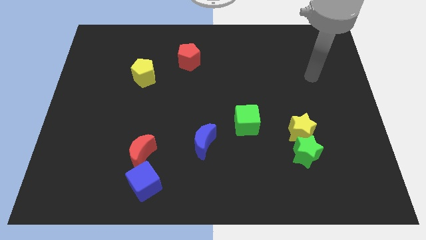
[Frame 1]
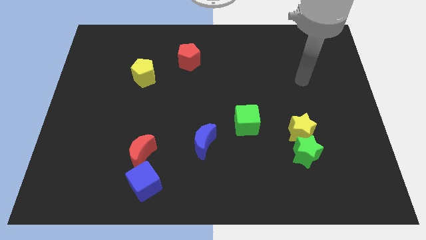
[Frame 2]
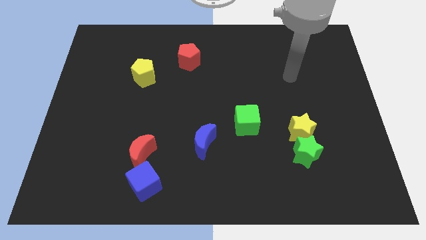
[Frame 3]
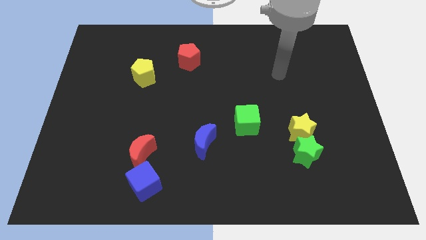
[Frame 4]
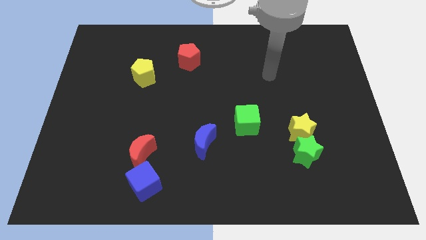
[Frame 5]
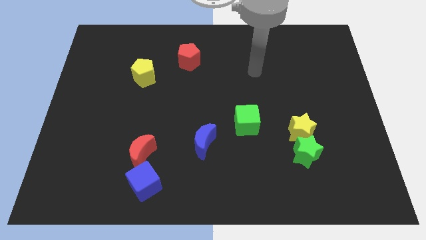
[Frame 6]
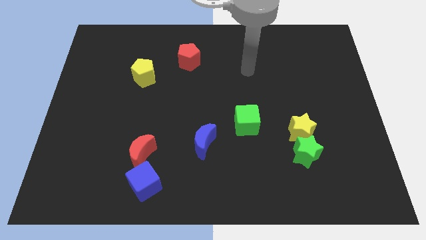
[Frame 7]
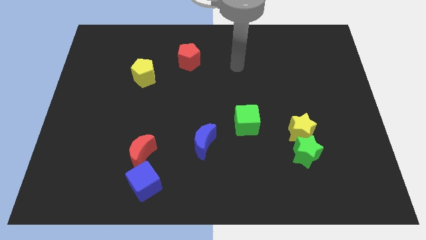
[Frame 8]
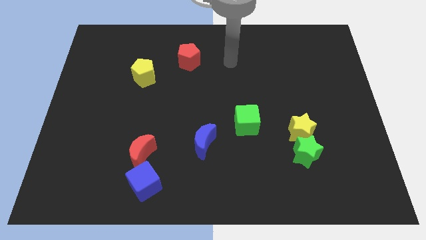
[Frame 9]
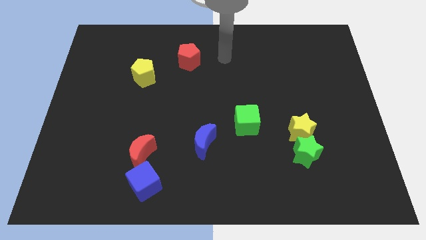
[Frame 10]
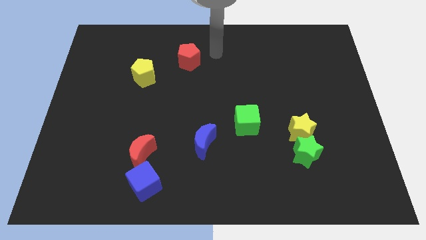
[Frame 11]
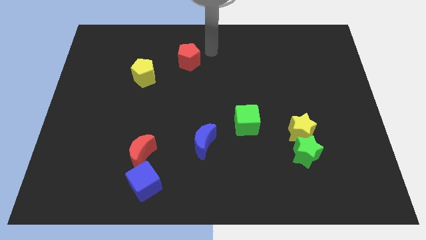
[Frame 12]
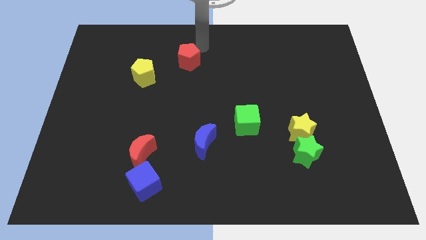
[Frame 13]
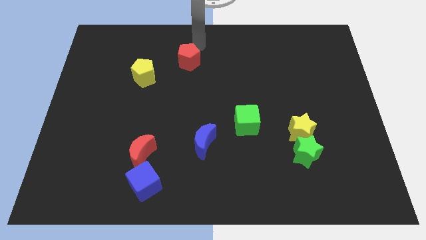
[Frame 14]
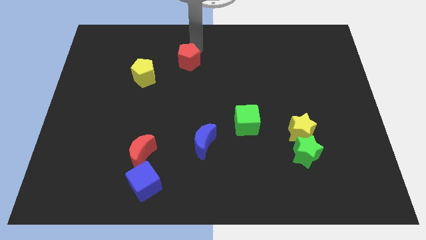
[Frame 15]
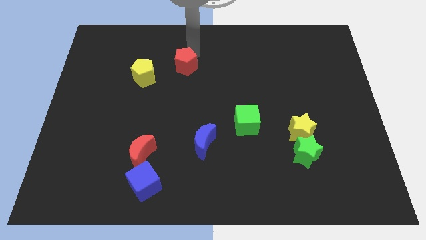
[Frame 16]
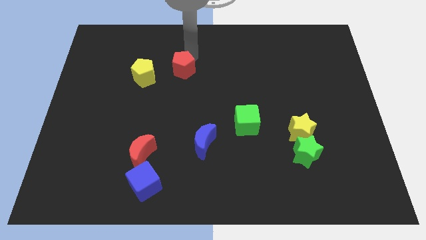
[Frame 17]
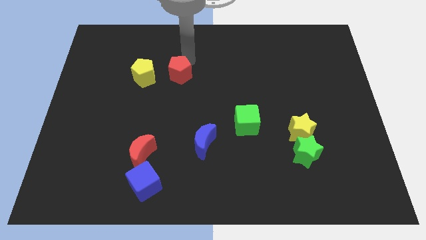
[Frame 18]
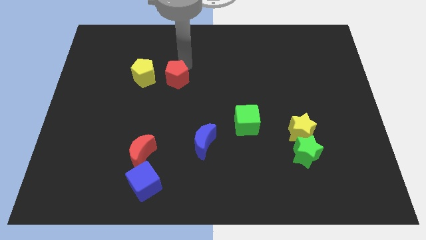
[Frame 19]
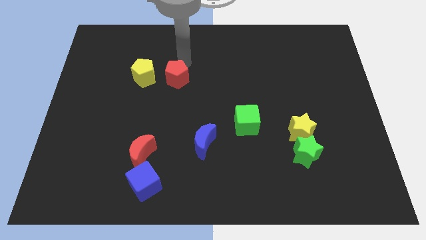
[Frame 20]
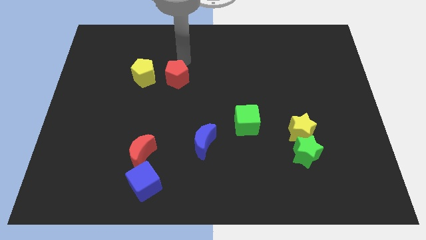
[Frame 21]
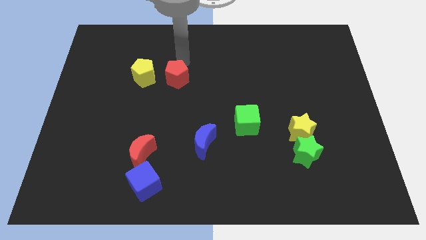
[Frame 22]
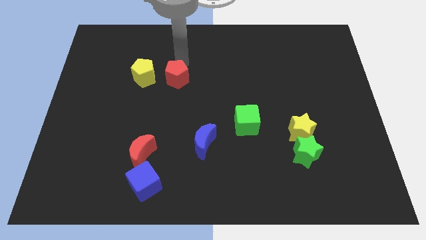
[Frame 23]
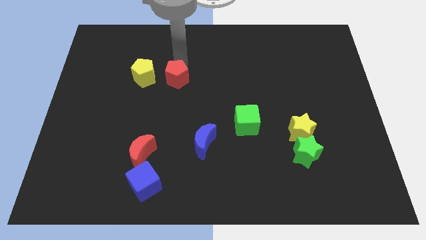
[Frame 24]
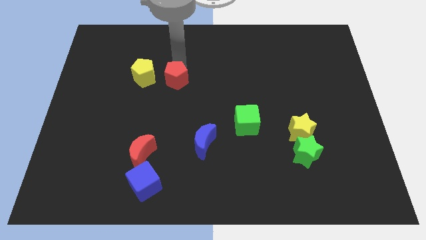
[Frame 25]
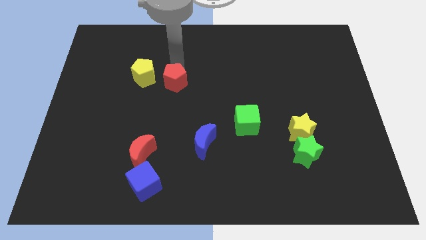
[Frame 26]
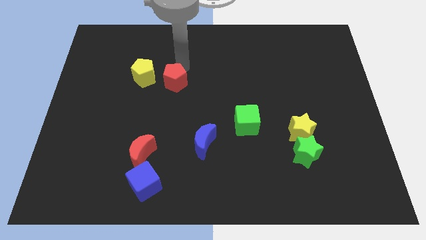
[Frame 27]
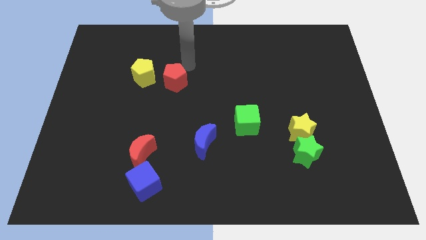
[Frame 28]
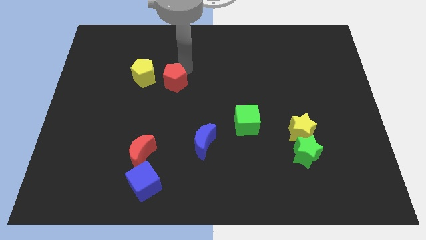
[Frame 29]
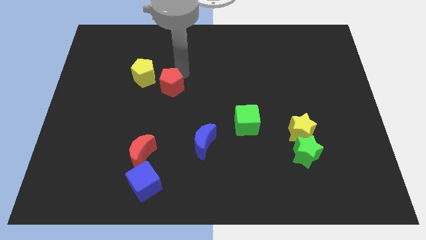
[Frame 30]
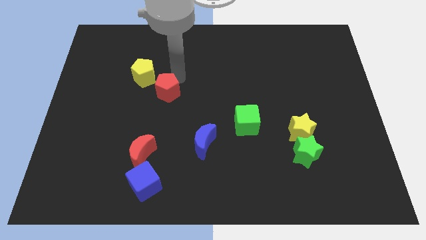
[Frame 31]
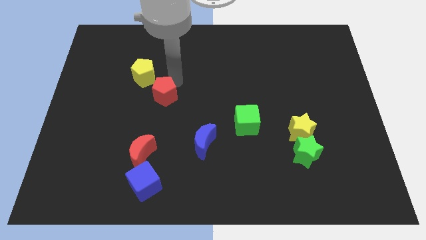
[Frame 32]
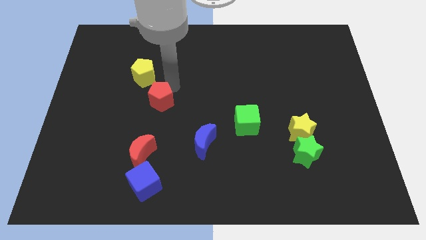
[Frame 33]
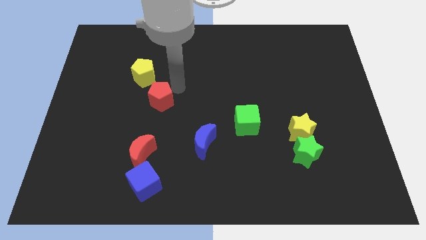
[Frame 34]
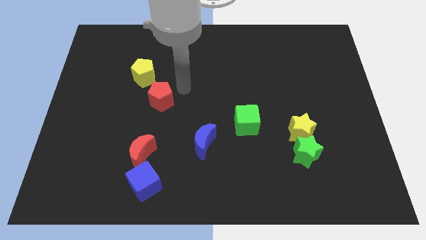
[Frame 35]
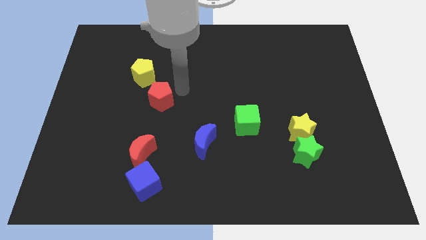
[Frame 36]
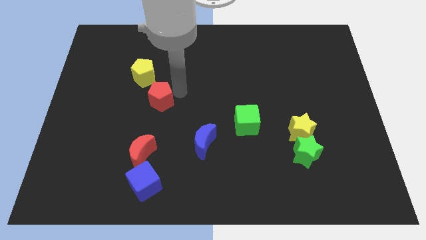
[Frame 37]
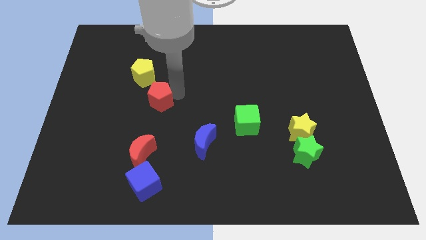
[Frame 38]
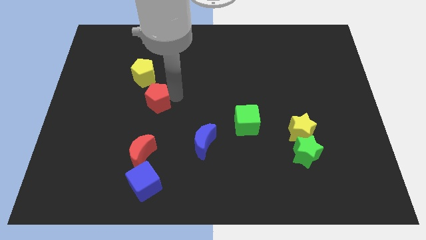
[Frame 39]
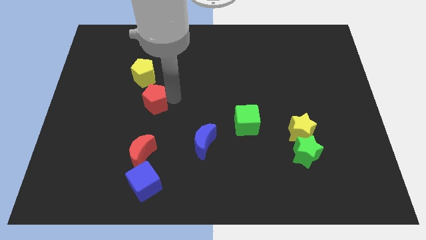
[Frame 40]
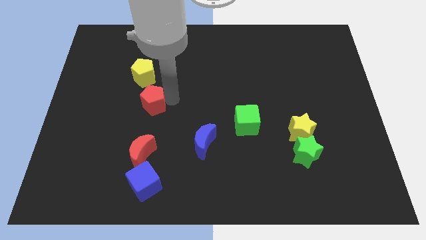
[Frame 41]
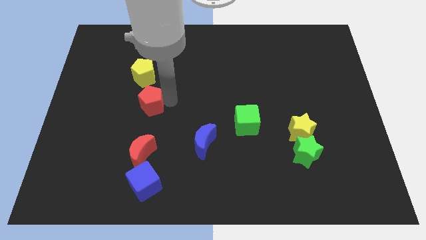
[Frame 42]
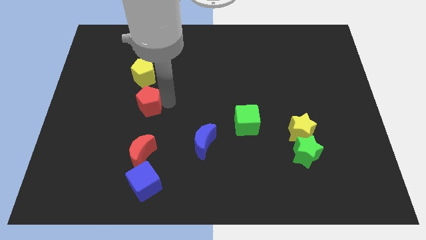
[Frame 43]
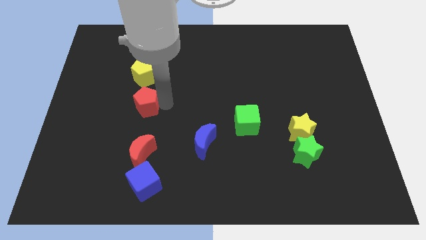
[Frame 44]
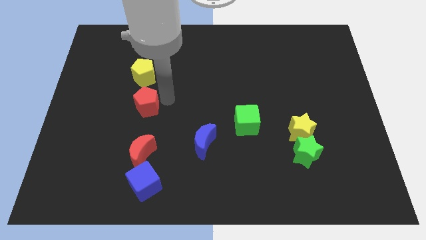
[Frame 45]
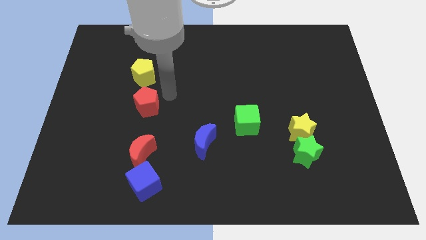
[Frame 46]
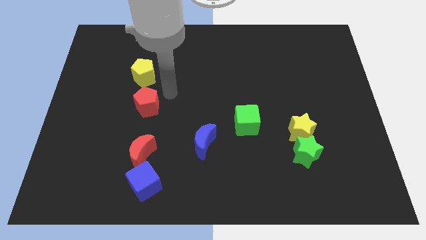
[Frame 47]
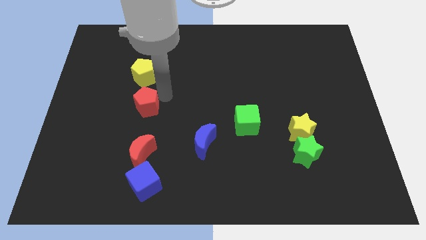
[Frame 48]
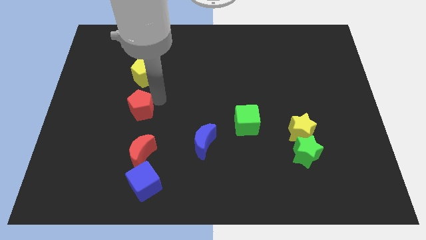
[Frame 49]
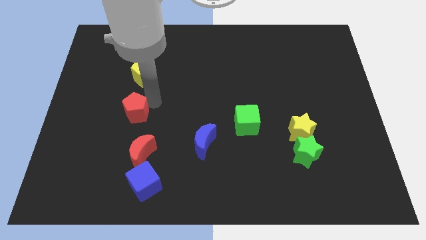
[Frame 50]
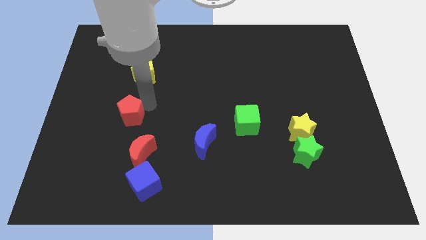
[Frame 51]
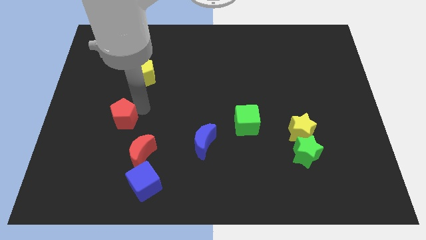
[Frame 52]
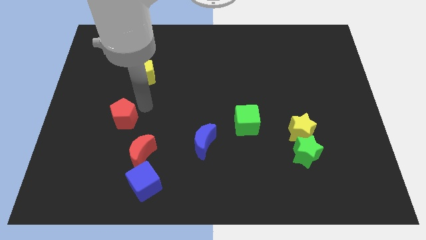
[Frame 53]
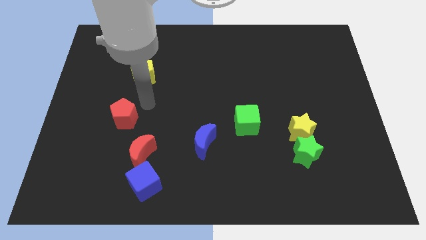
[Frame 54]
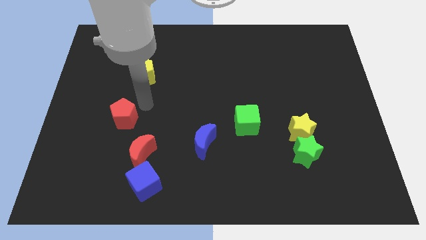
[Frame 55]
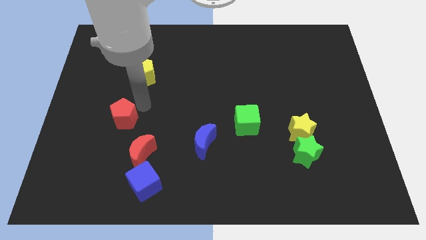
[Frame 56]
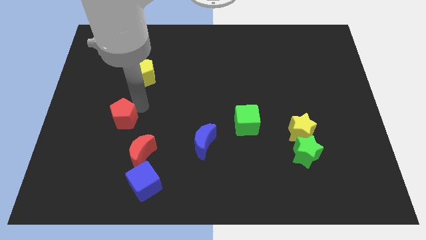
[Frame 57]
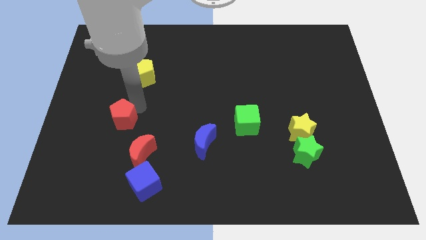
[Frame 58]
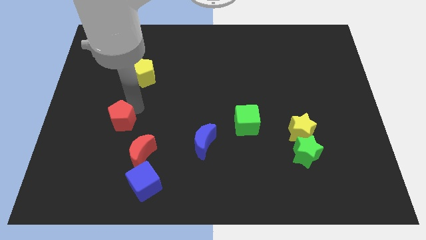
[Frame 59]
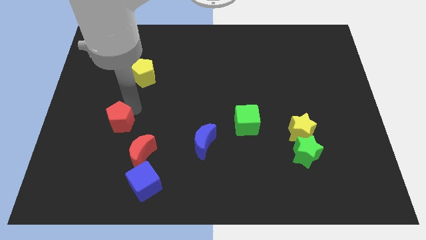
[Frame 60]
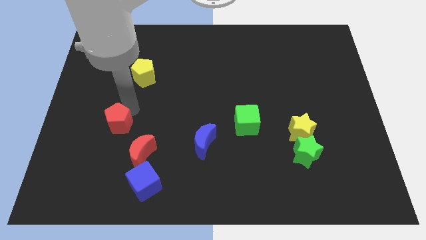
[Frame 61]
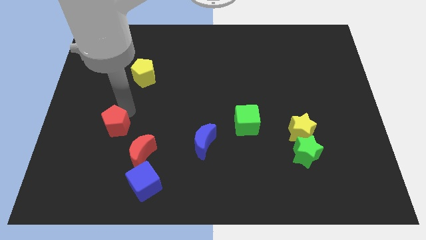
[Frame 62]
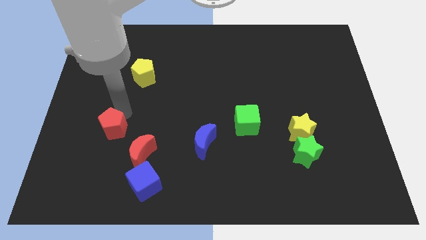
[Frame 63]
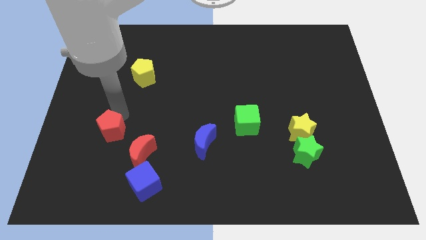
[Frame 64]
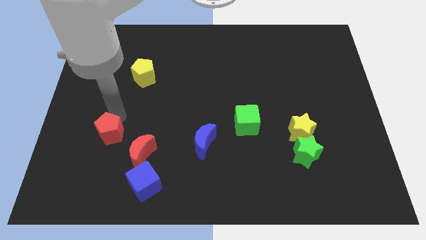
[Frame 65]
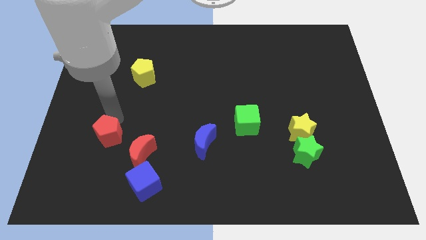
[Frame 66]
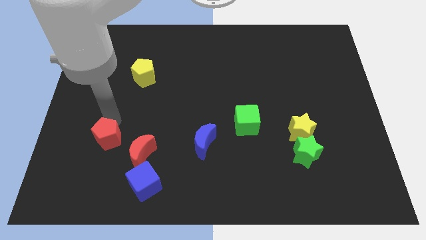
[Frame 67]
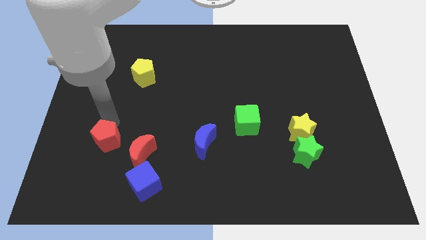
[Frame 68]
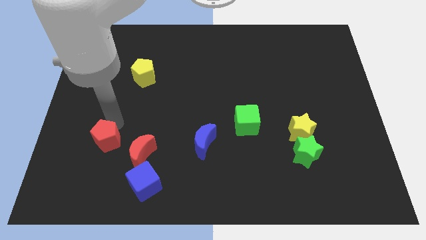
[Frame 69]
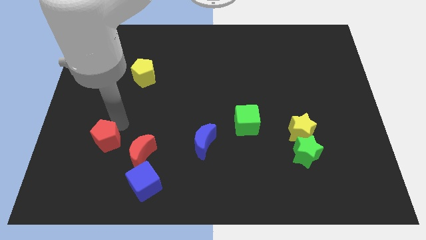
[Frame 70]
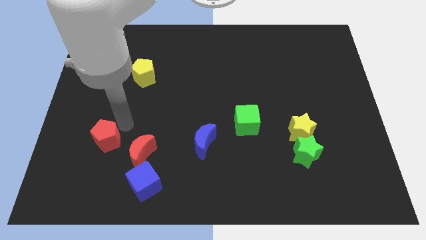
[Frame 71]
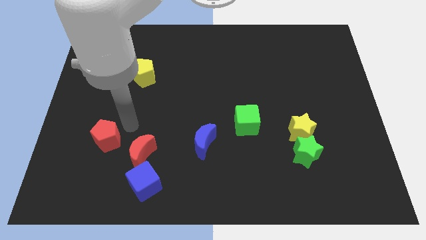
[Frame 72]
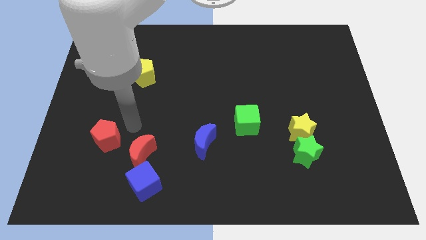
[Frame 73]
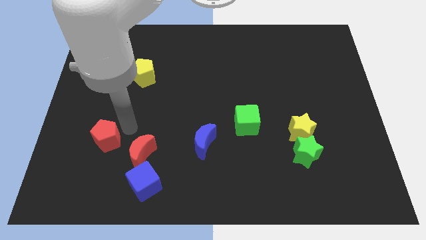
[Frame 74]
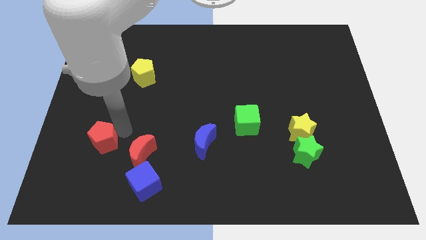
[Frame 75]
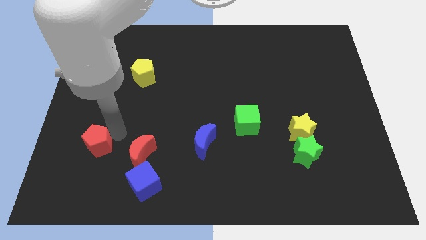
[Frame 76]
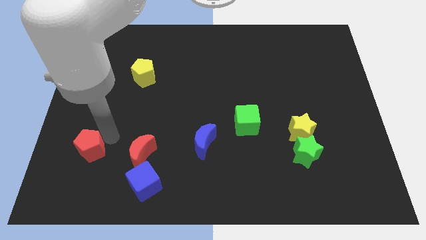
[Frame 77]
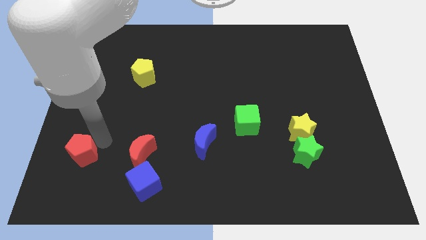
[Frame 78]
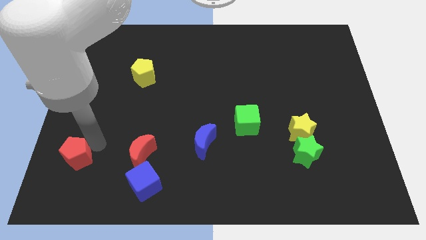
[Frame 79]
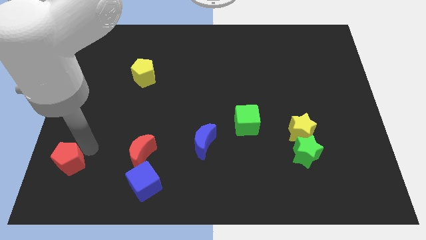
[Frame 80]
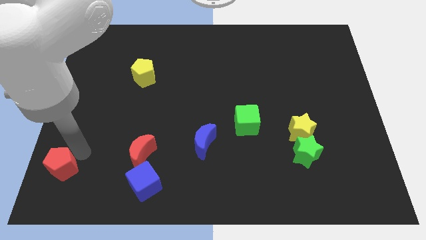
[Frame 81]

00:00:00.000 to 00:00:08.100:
move the red pentagon to the bottom left
